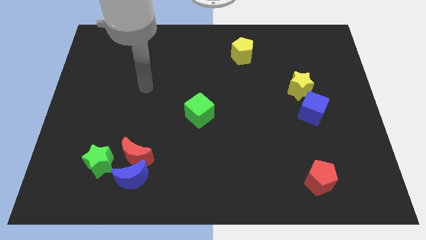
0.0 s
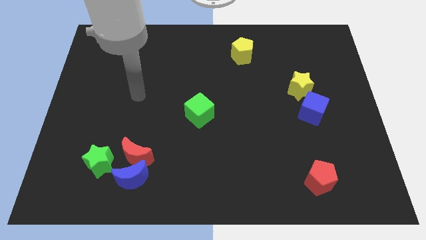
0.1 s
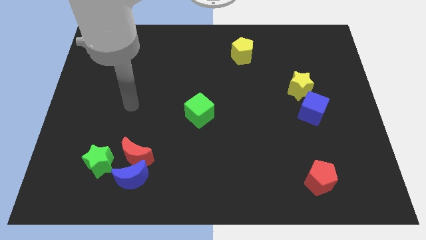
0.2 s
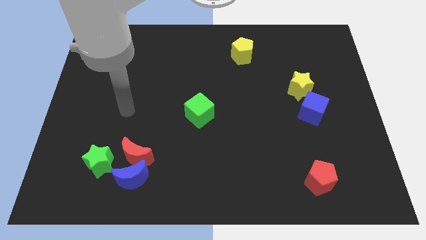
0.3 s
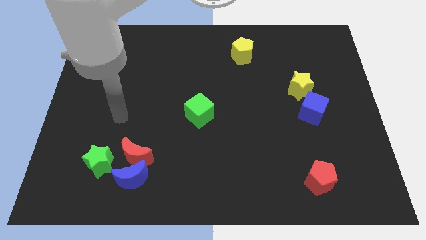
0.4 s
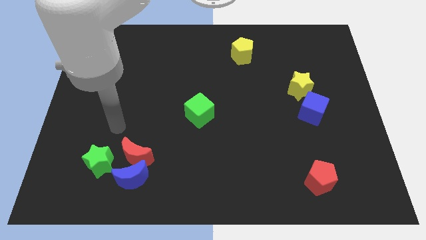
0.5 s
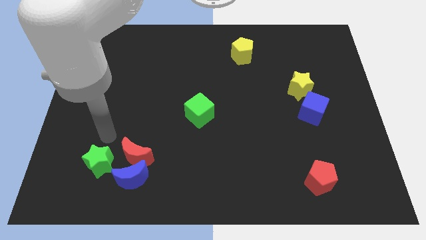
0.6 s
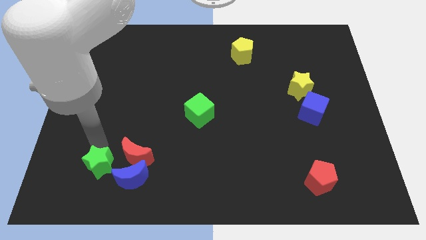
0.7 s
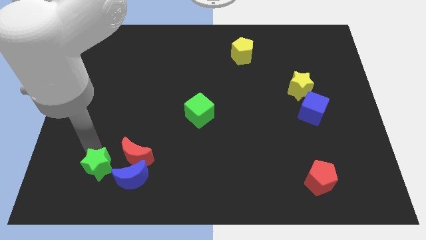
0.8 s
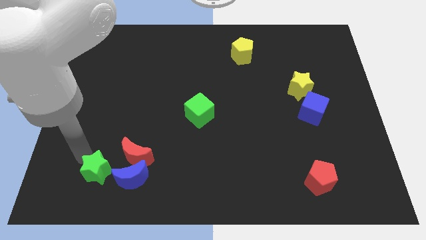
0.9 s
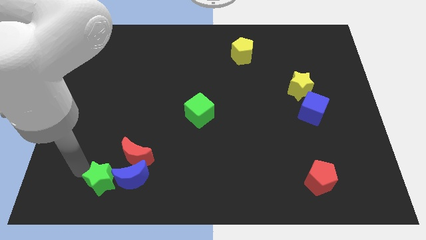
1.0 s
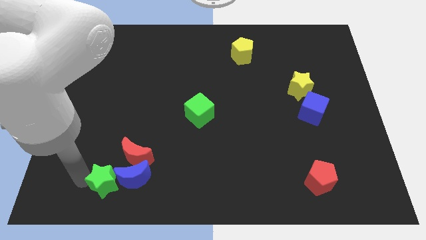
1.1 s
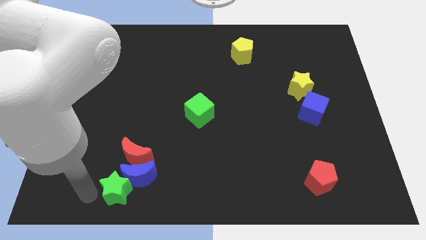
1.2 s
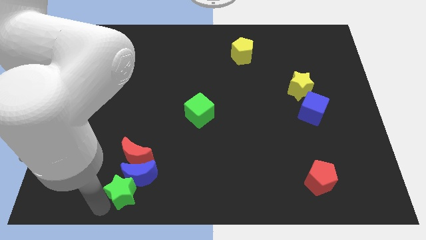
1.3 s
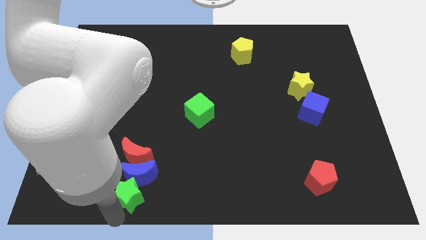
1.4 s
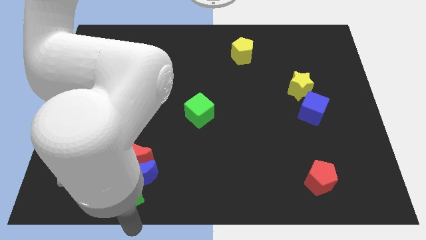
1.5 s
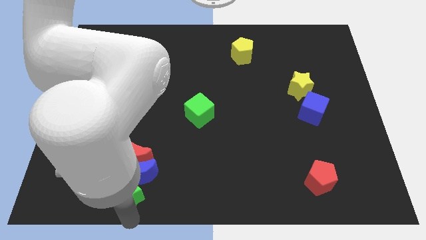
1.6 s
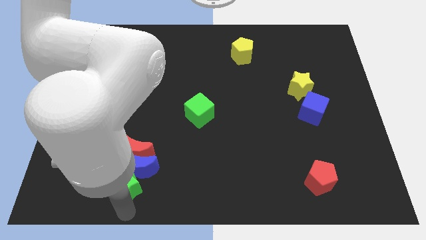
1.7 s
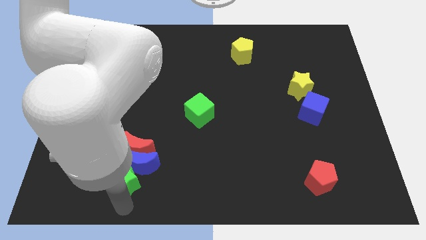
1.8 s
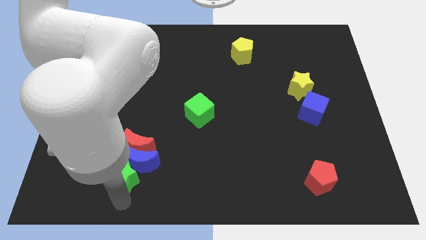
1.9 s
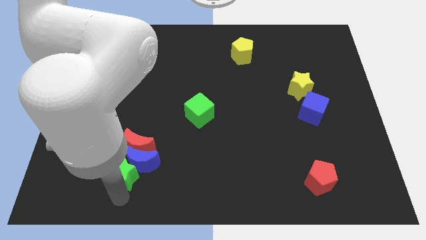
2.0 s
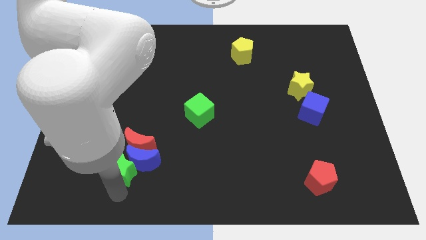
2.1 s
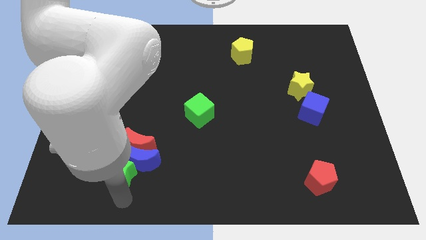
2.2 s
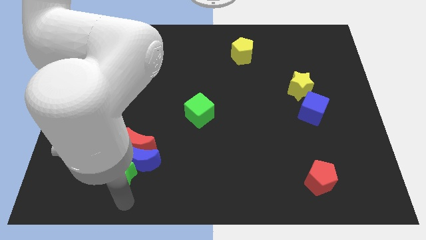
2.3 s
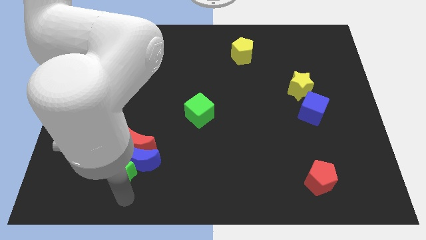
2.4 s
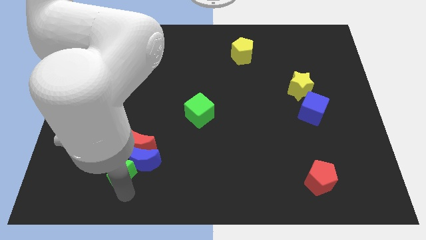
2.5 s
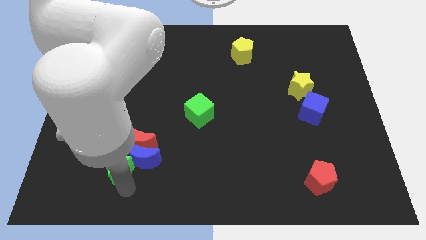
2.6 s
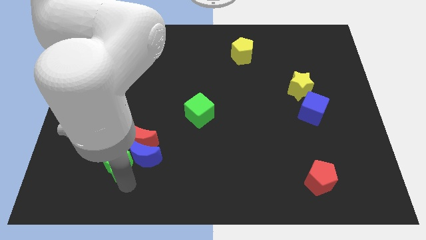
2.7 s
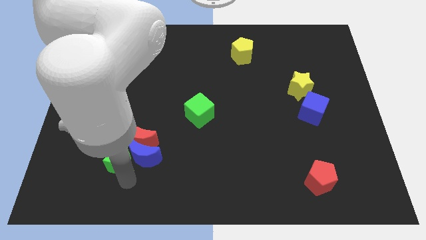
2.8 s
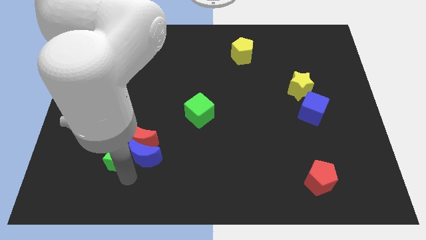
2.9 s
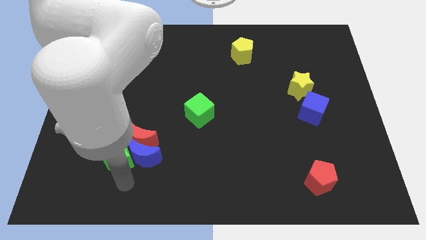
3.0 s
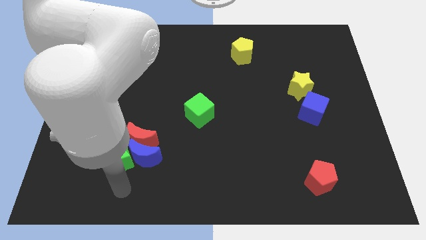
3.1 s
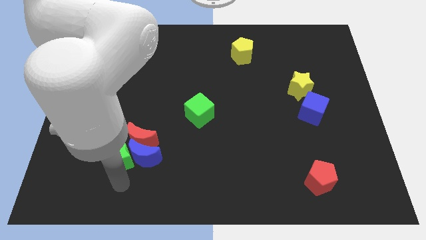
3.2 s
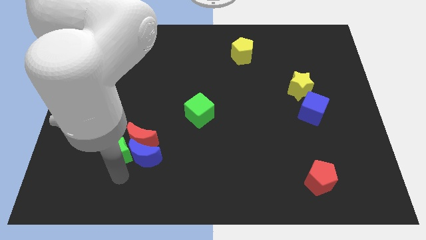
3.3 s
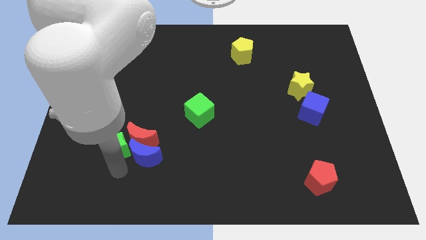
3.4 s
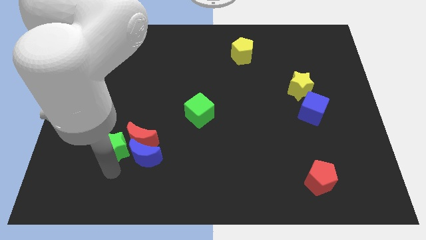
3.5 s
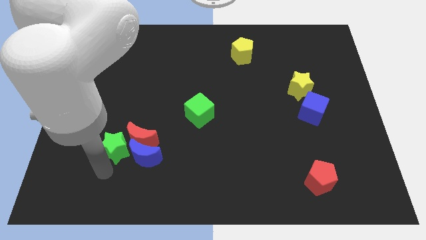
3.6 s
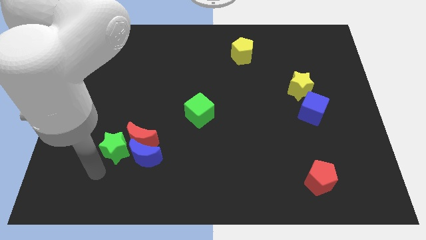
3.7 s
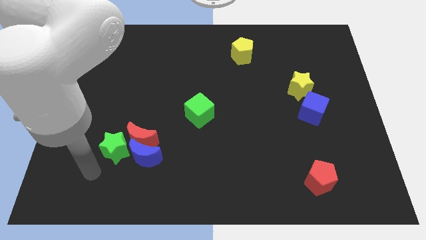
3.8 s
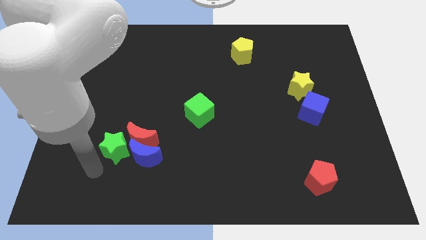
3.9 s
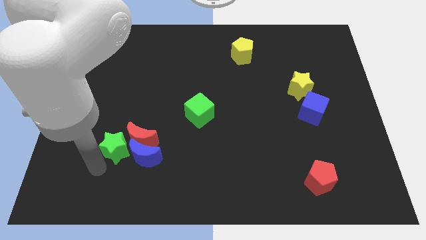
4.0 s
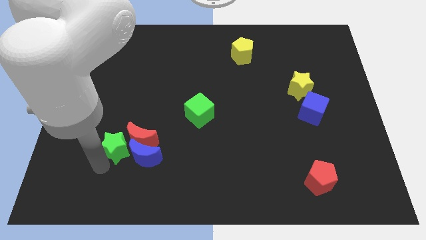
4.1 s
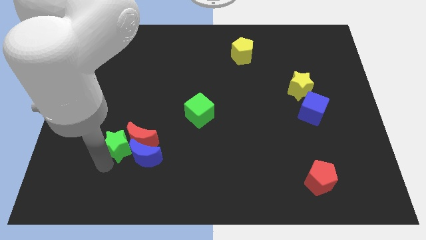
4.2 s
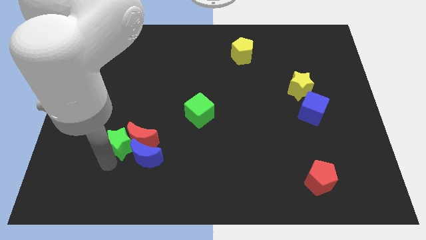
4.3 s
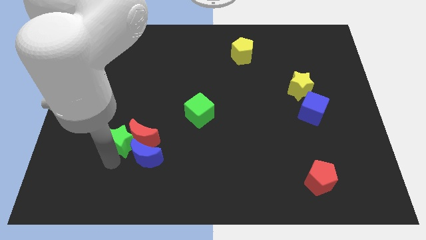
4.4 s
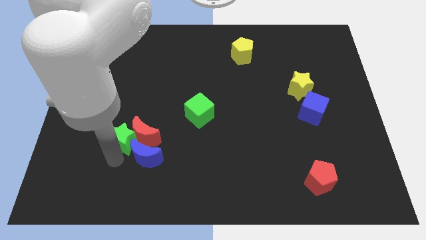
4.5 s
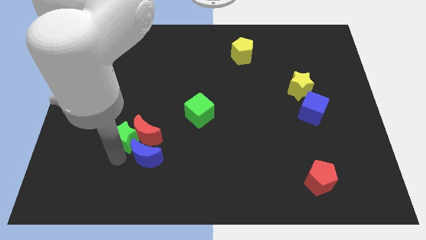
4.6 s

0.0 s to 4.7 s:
slide the green star a little bit upwards and right diagonally

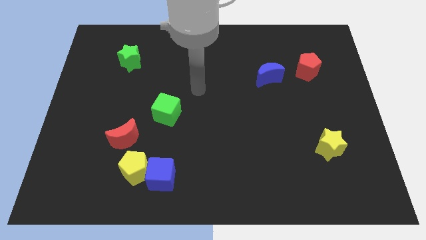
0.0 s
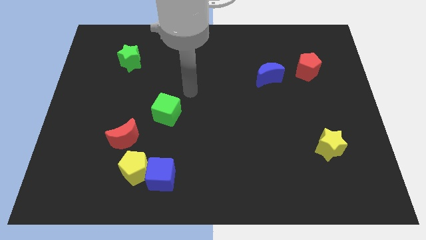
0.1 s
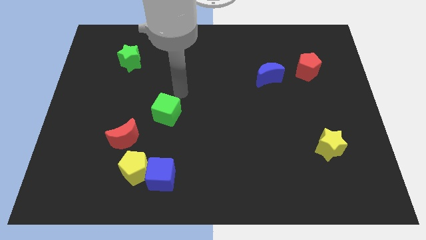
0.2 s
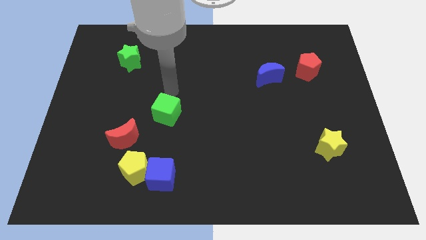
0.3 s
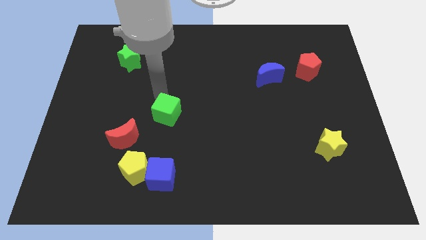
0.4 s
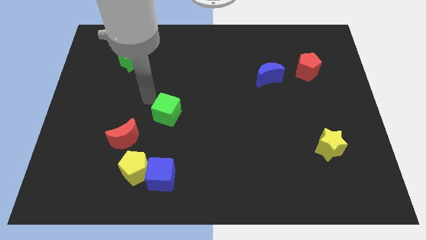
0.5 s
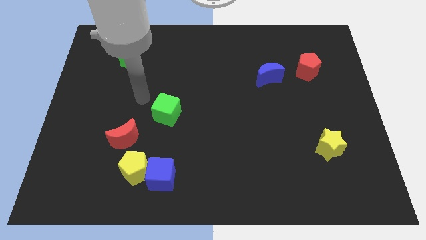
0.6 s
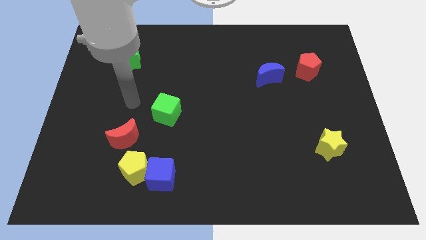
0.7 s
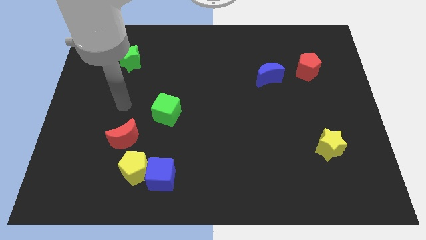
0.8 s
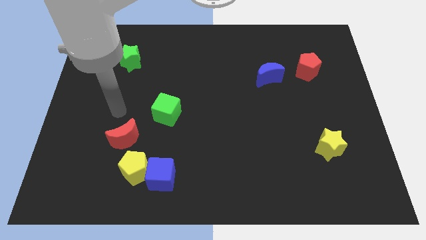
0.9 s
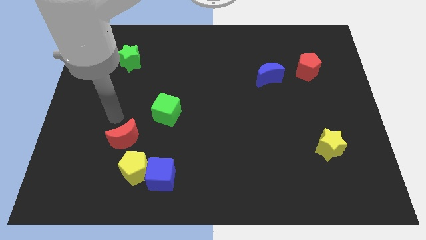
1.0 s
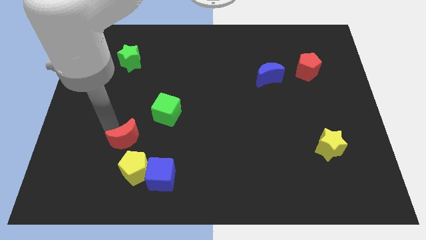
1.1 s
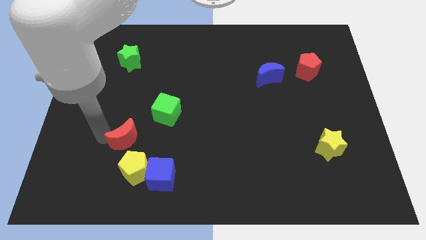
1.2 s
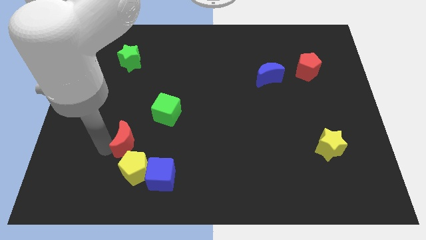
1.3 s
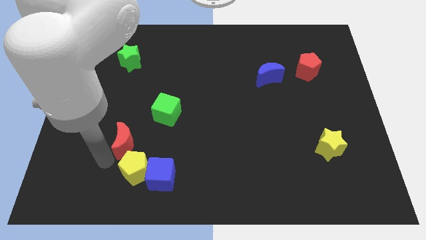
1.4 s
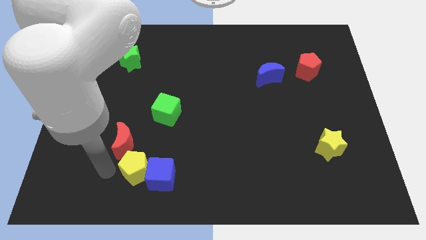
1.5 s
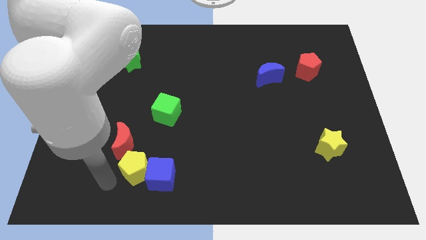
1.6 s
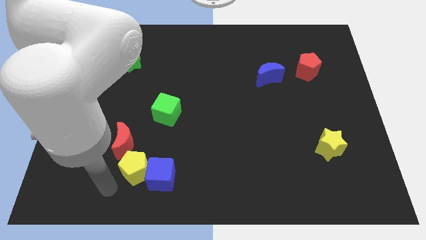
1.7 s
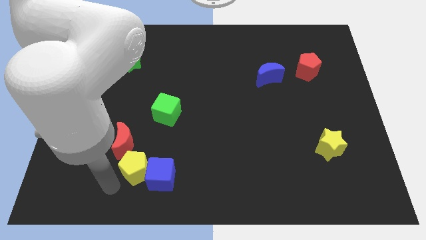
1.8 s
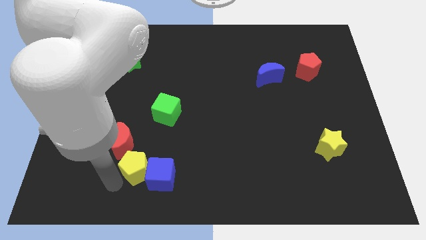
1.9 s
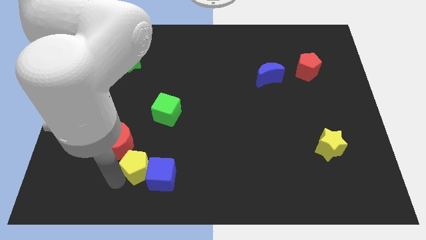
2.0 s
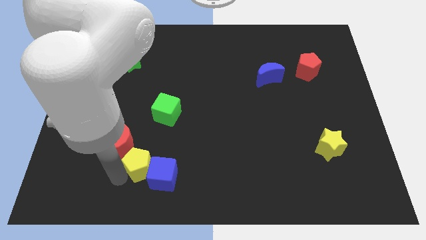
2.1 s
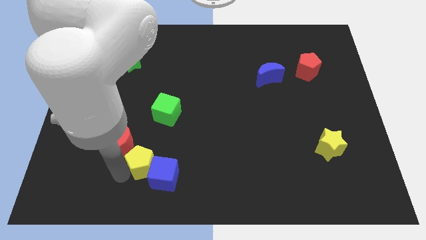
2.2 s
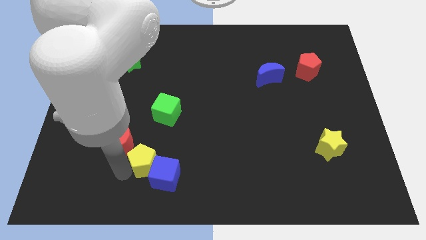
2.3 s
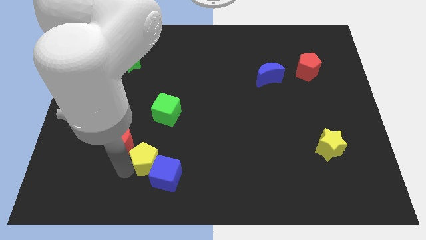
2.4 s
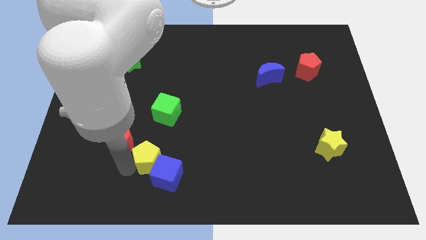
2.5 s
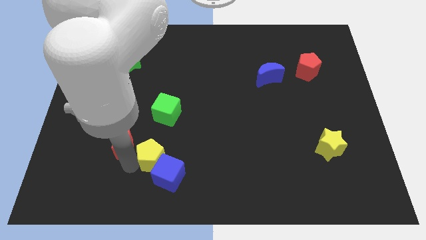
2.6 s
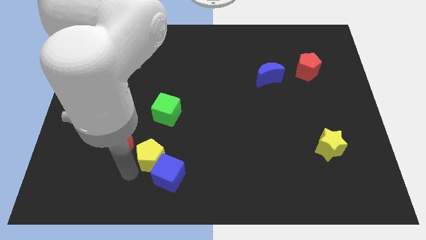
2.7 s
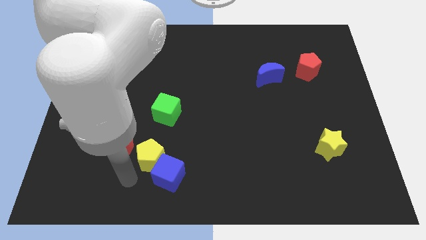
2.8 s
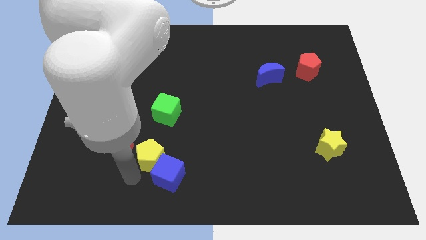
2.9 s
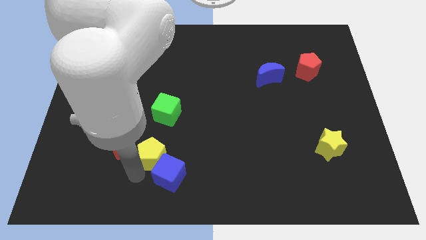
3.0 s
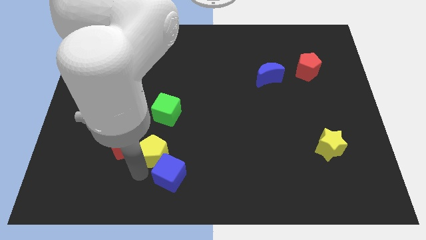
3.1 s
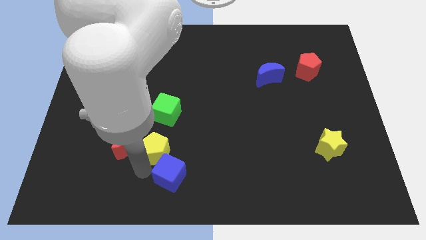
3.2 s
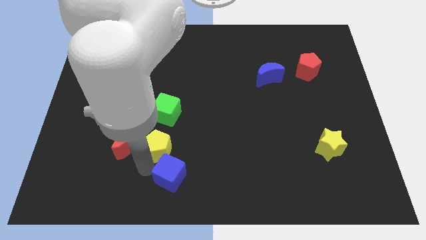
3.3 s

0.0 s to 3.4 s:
slide the yellow pentagon up and to the right diagonally a little
